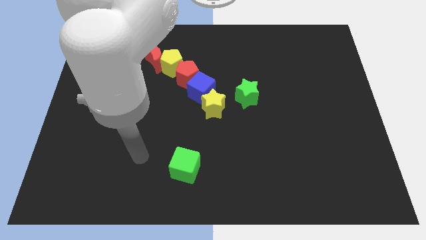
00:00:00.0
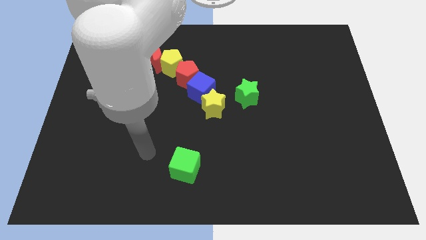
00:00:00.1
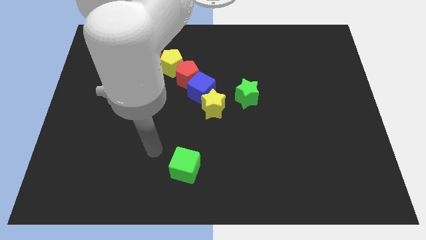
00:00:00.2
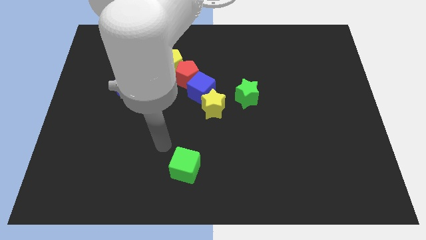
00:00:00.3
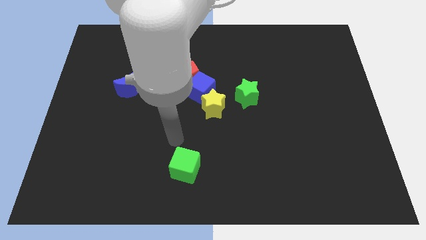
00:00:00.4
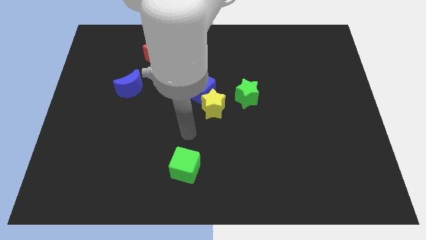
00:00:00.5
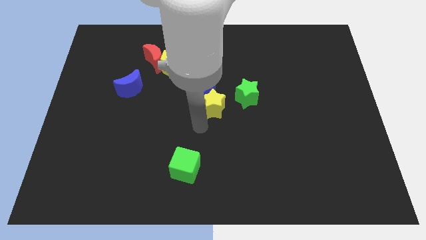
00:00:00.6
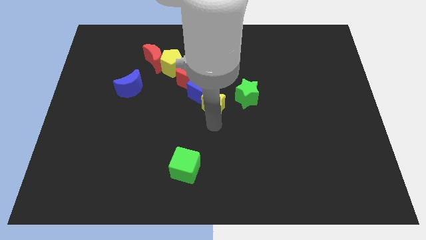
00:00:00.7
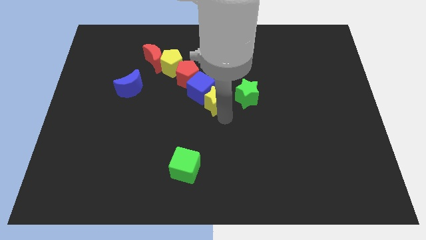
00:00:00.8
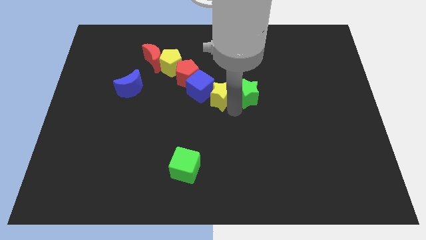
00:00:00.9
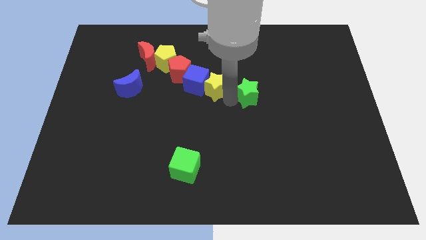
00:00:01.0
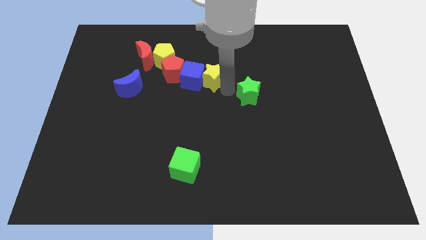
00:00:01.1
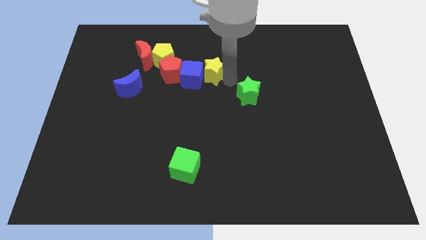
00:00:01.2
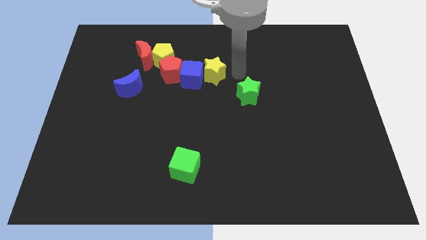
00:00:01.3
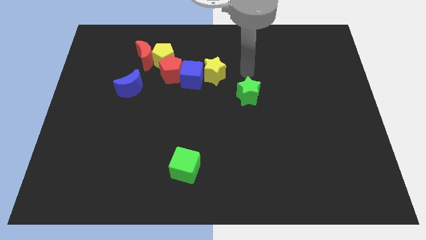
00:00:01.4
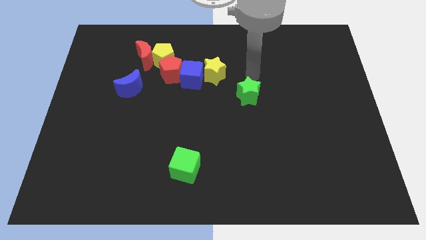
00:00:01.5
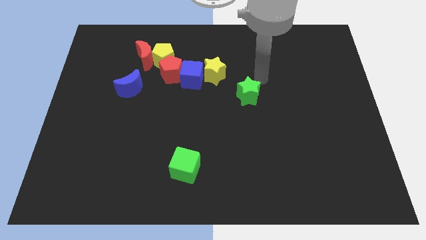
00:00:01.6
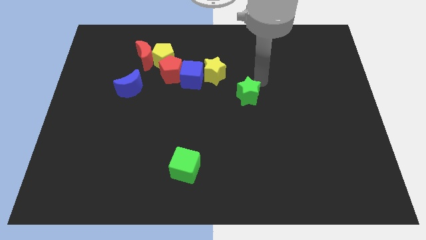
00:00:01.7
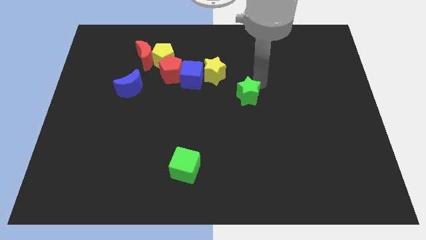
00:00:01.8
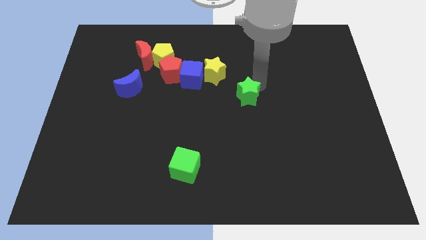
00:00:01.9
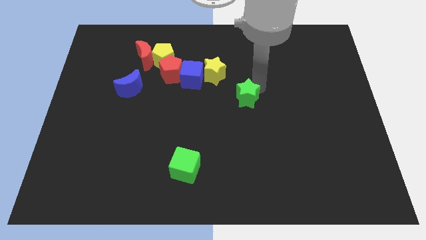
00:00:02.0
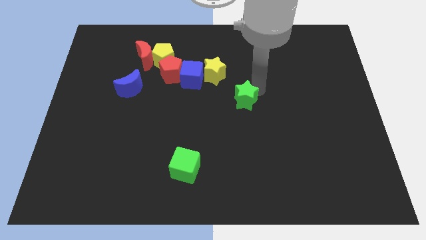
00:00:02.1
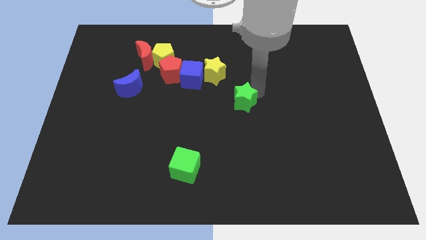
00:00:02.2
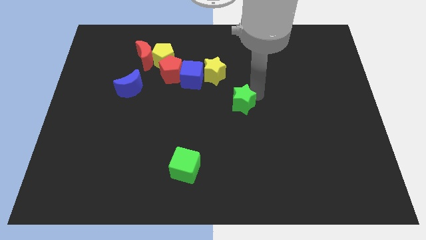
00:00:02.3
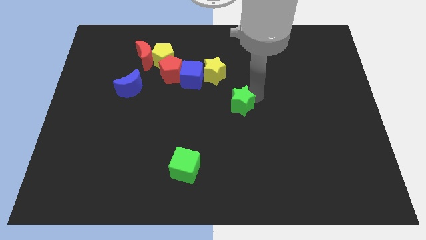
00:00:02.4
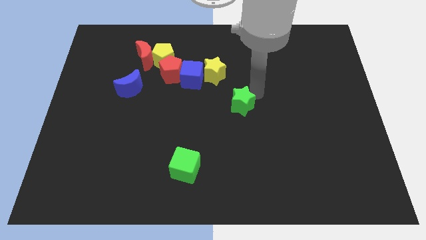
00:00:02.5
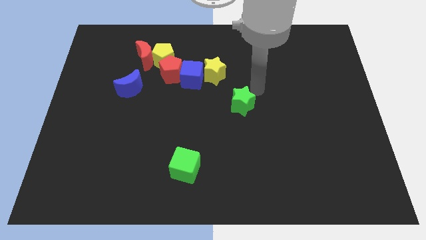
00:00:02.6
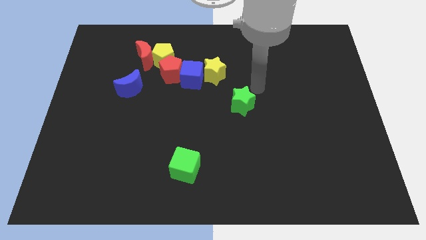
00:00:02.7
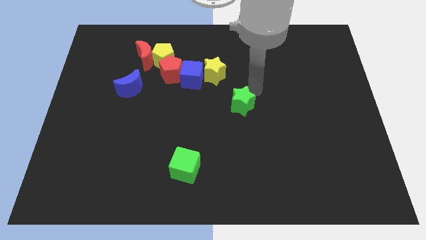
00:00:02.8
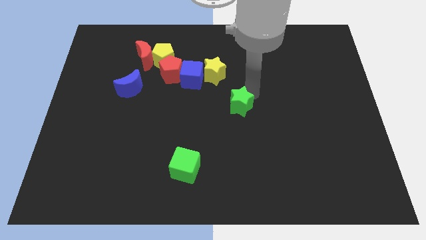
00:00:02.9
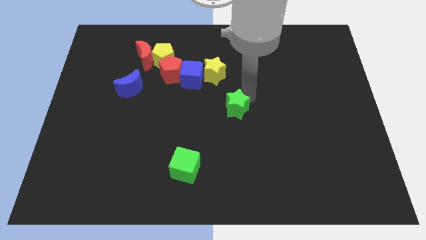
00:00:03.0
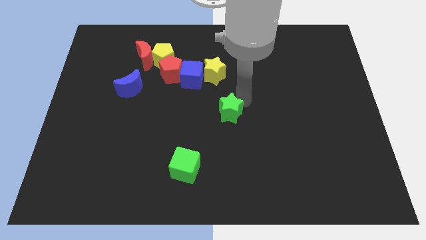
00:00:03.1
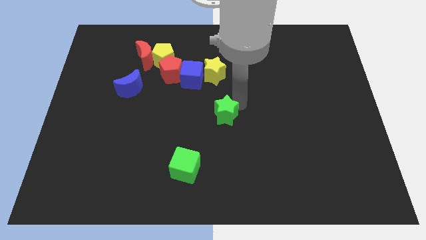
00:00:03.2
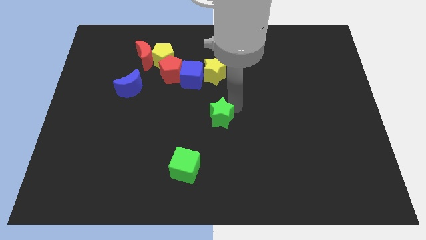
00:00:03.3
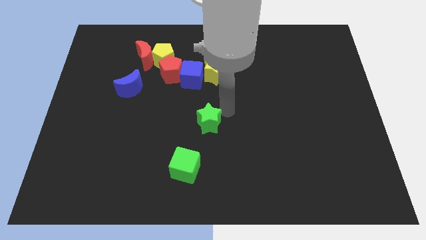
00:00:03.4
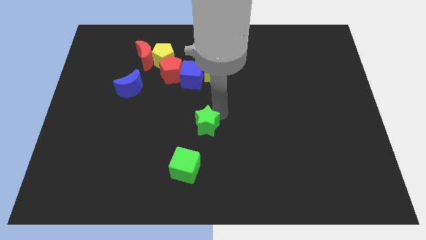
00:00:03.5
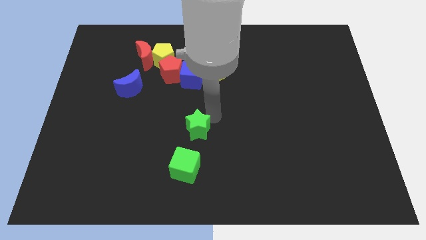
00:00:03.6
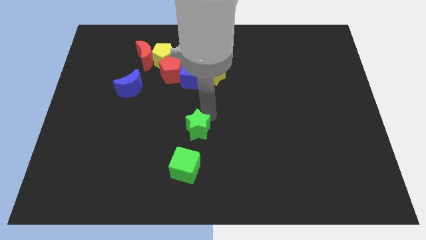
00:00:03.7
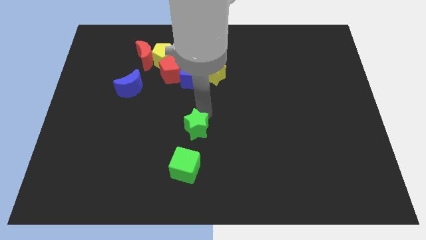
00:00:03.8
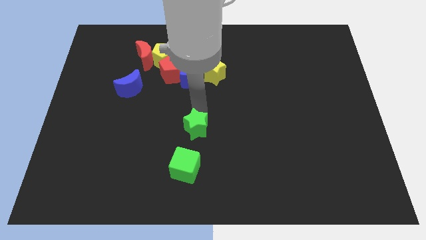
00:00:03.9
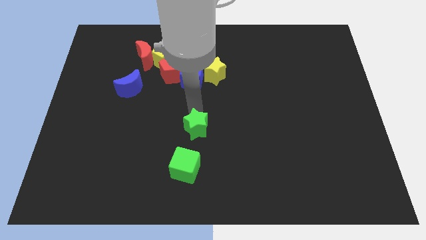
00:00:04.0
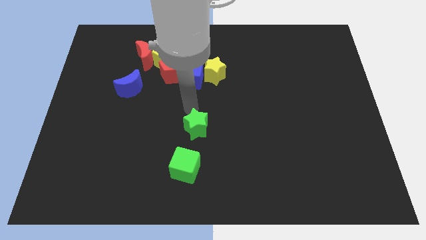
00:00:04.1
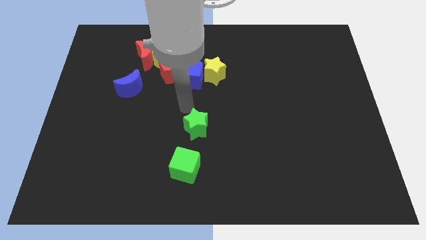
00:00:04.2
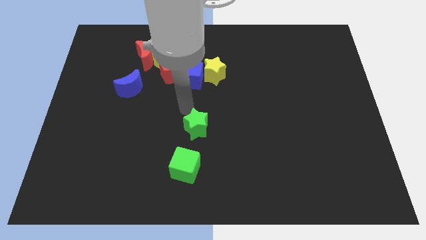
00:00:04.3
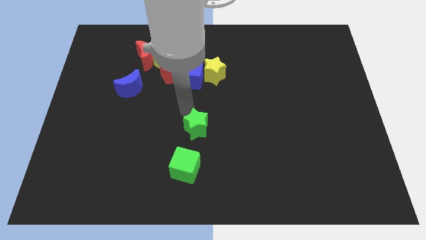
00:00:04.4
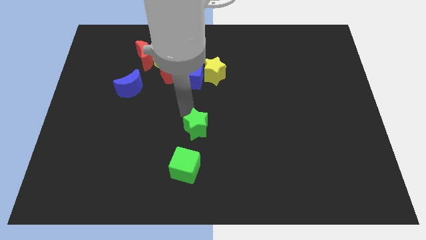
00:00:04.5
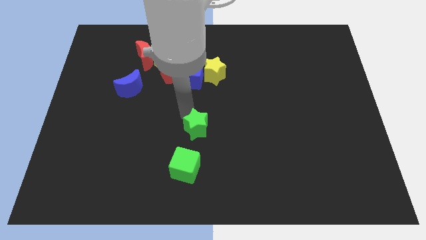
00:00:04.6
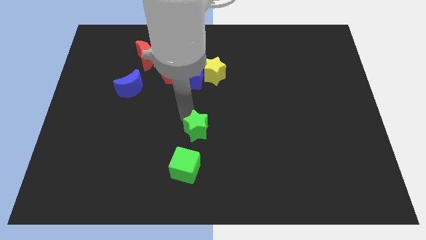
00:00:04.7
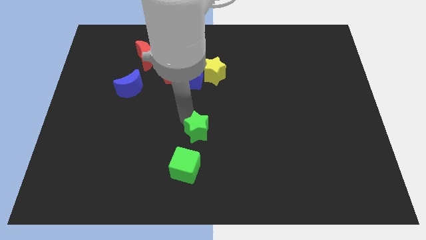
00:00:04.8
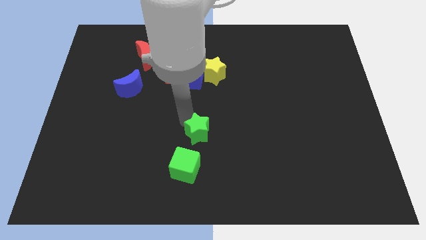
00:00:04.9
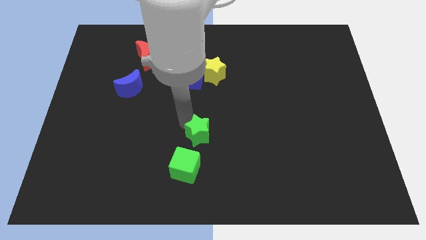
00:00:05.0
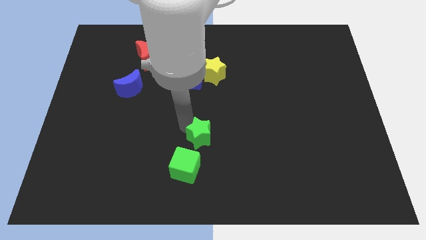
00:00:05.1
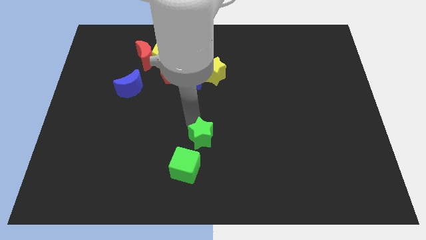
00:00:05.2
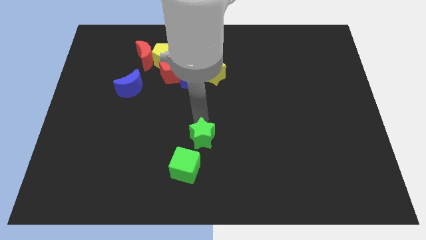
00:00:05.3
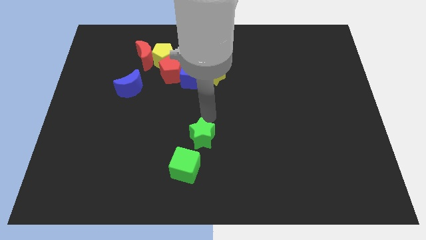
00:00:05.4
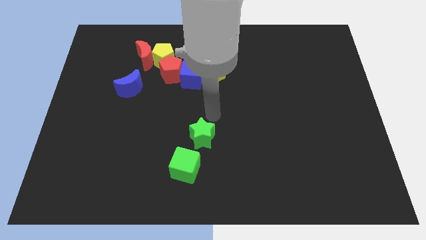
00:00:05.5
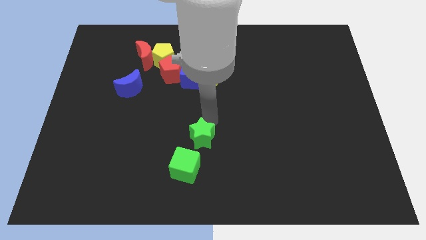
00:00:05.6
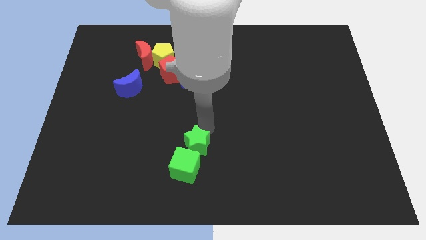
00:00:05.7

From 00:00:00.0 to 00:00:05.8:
move the green star to the green cube
